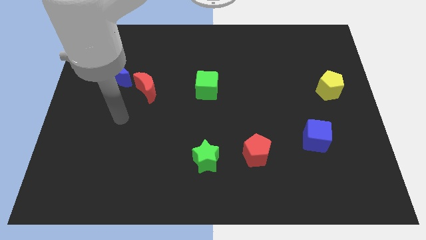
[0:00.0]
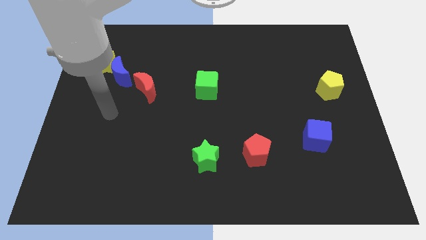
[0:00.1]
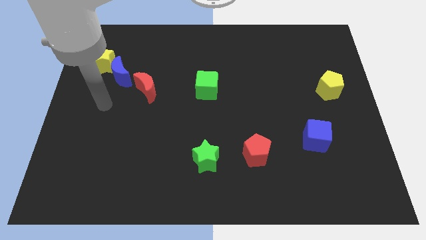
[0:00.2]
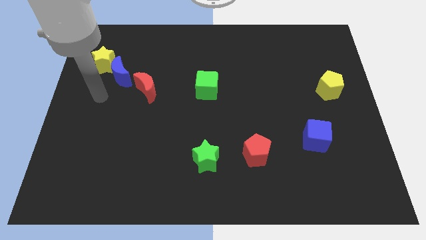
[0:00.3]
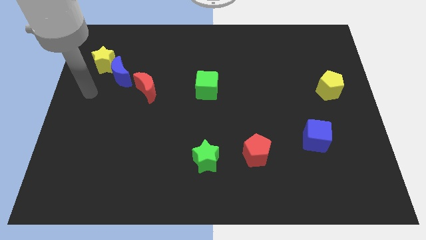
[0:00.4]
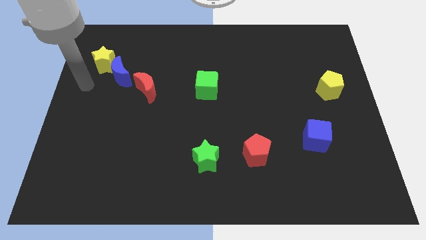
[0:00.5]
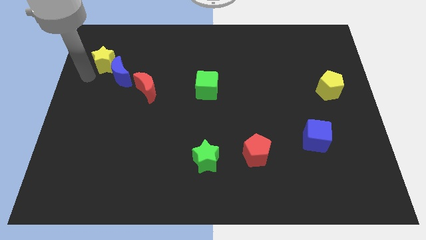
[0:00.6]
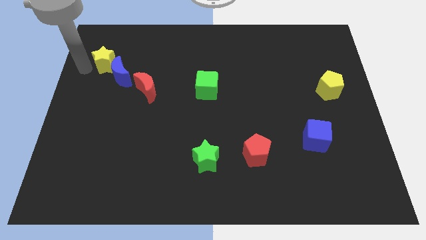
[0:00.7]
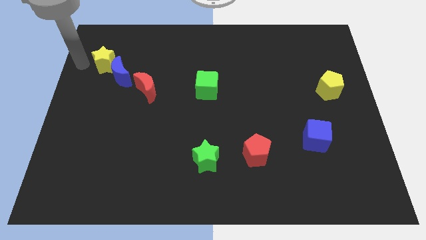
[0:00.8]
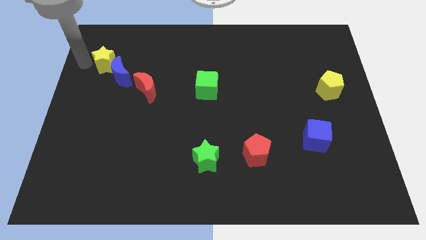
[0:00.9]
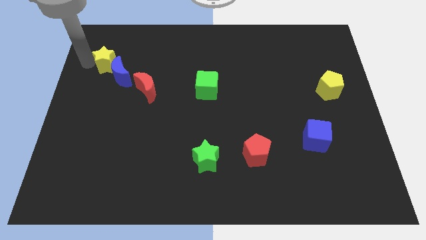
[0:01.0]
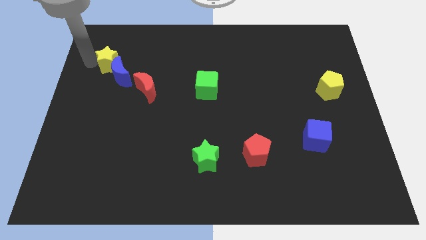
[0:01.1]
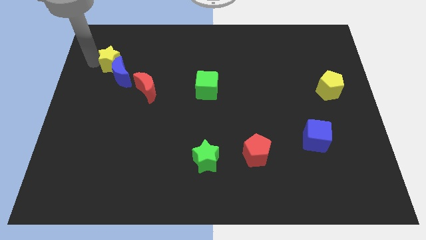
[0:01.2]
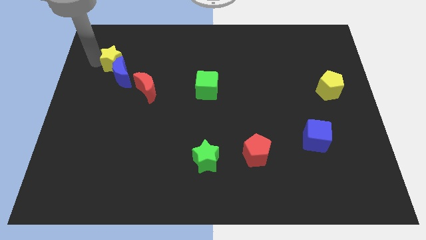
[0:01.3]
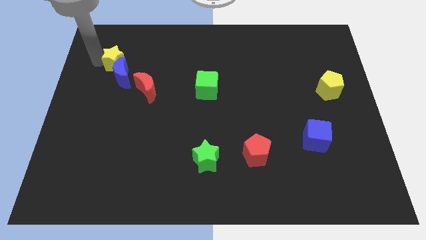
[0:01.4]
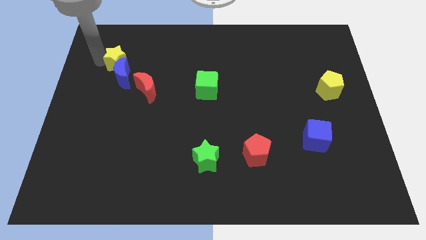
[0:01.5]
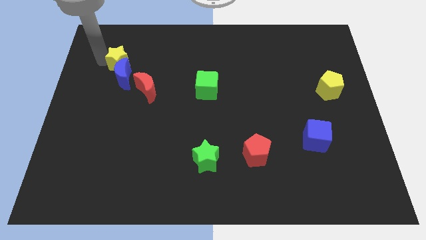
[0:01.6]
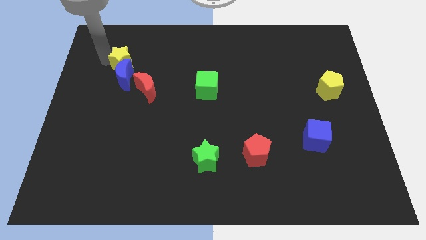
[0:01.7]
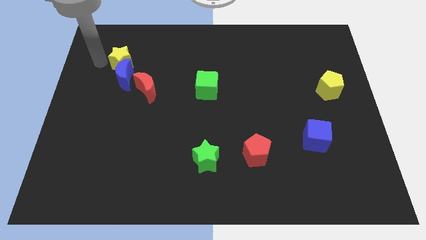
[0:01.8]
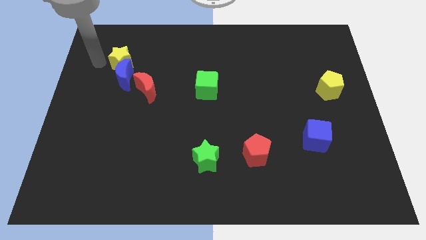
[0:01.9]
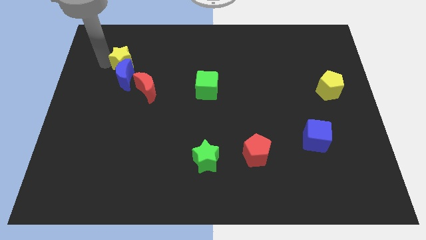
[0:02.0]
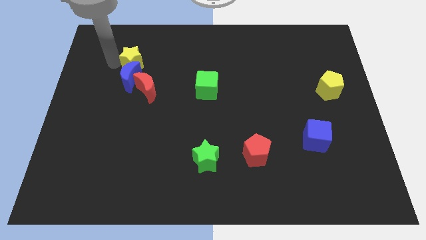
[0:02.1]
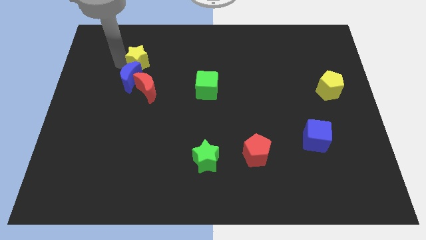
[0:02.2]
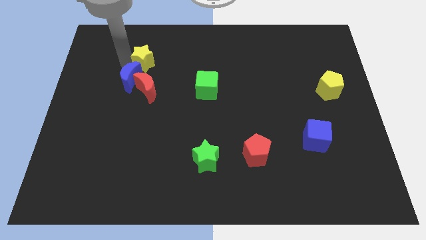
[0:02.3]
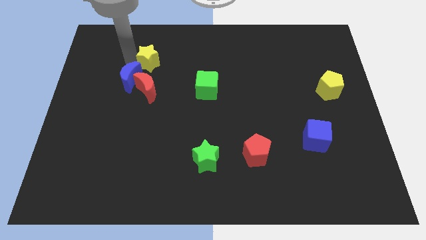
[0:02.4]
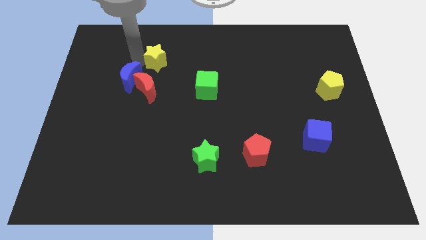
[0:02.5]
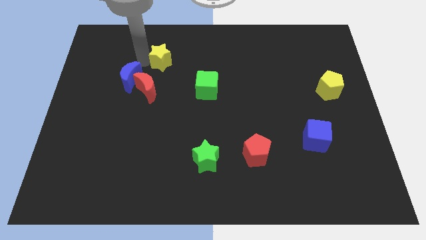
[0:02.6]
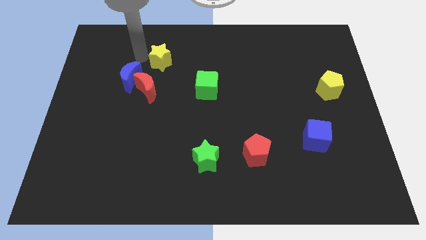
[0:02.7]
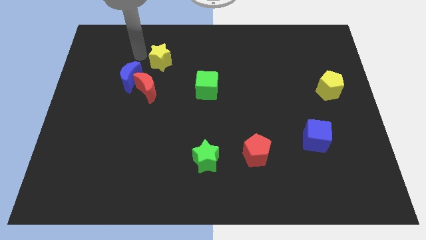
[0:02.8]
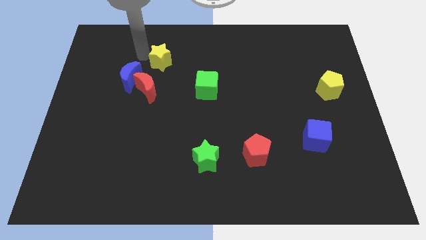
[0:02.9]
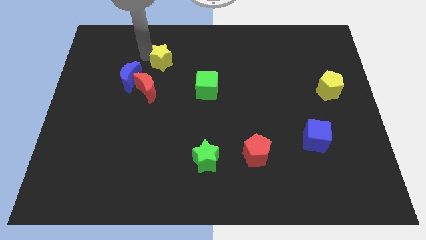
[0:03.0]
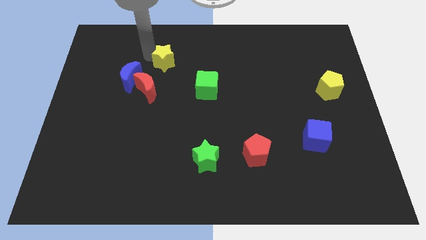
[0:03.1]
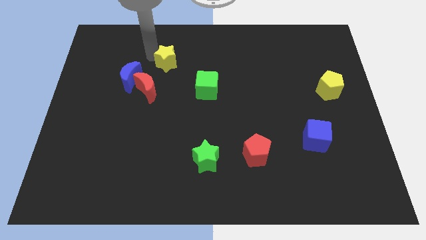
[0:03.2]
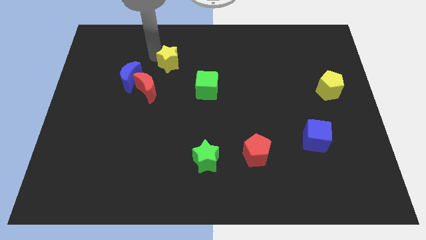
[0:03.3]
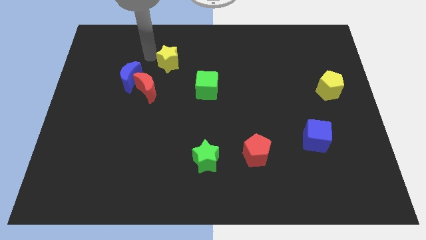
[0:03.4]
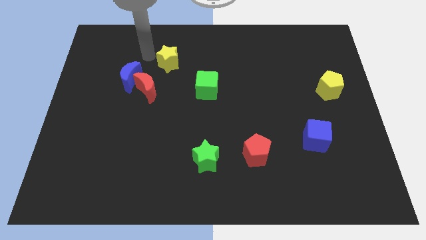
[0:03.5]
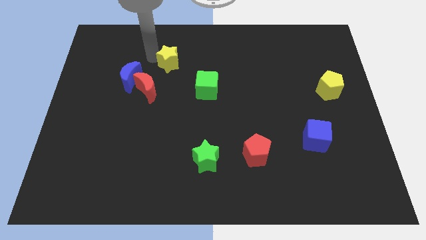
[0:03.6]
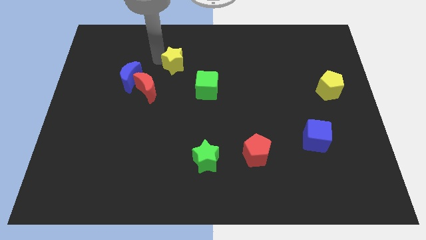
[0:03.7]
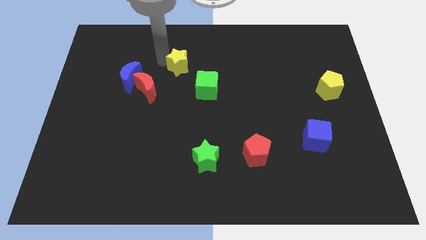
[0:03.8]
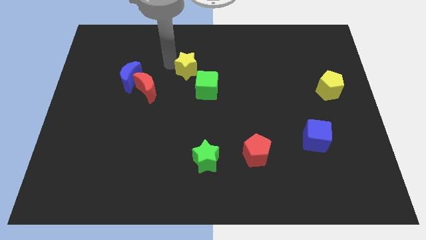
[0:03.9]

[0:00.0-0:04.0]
push the yellow star right

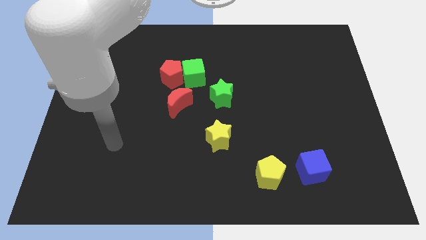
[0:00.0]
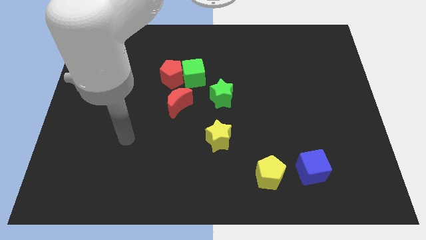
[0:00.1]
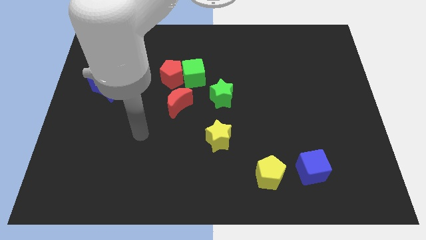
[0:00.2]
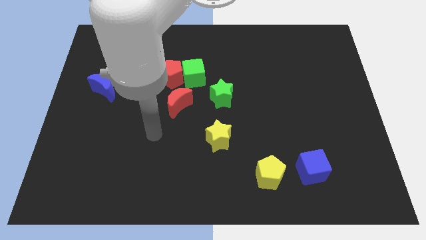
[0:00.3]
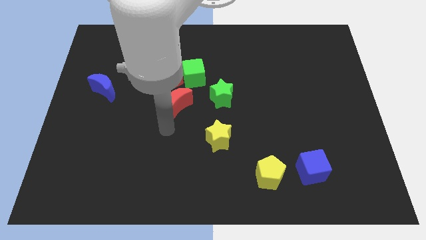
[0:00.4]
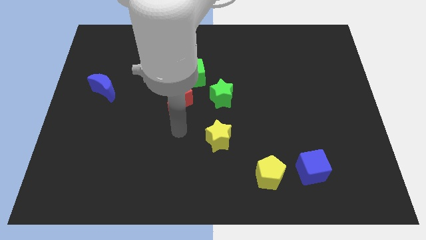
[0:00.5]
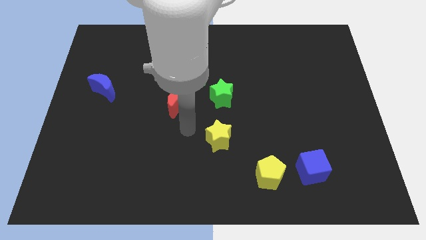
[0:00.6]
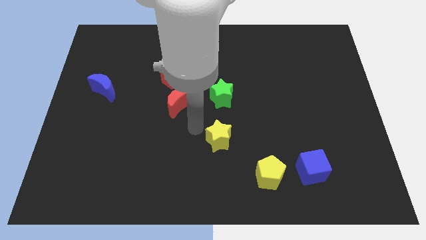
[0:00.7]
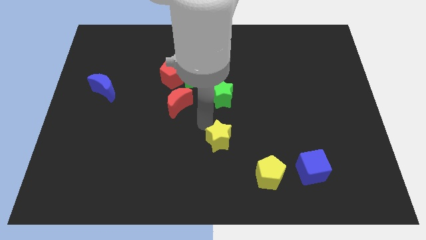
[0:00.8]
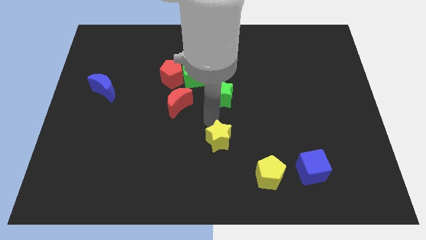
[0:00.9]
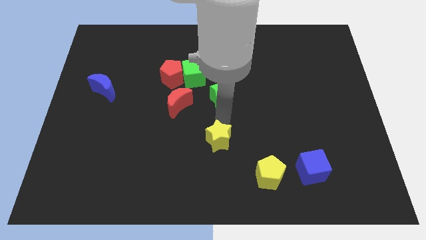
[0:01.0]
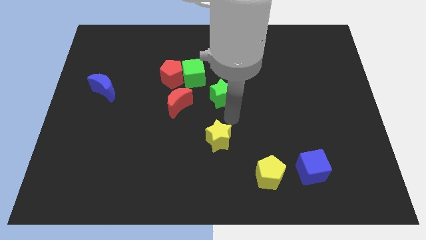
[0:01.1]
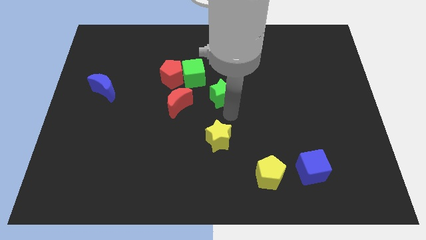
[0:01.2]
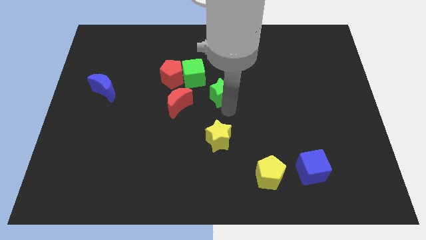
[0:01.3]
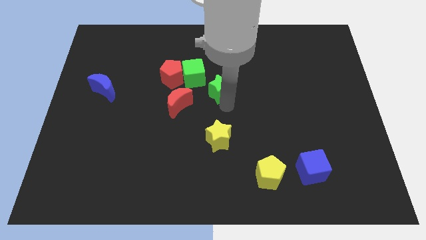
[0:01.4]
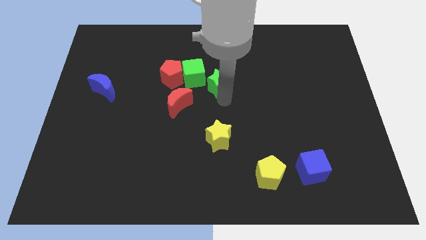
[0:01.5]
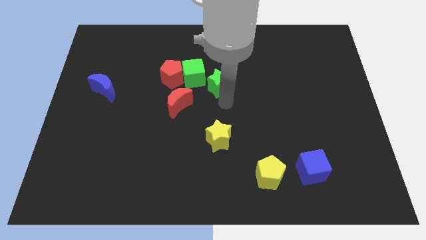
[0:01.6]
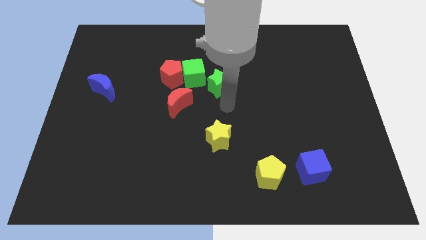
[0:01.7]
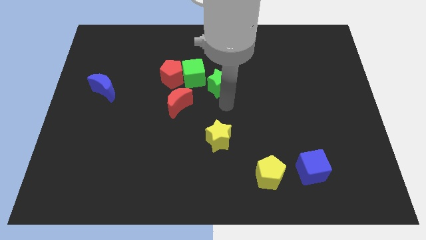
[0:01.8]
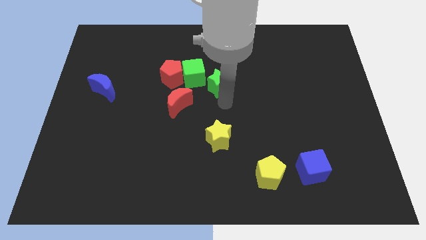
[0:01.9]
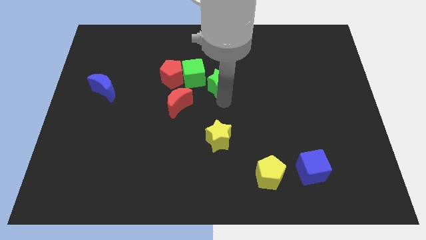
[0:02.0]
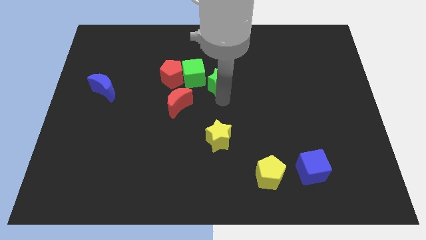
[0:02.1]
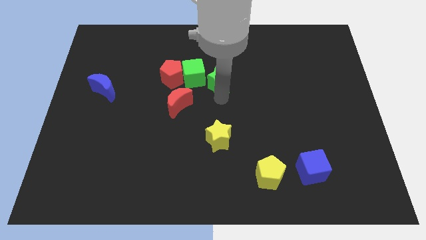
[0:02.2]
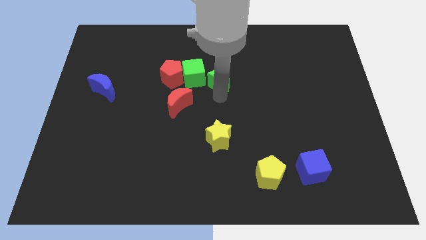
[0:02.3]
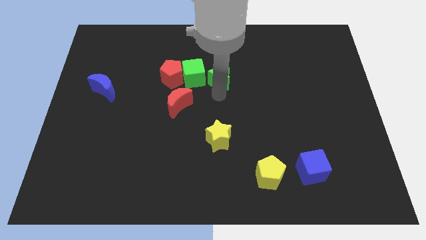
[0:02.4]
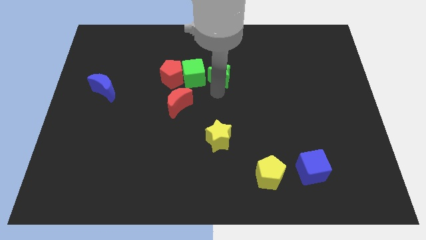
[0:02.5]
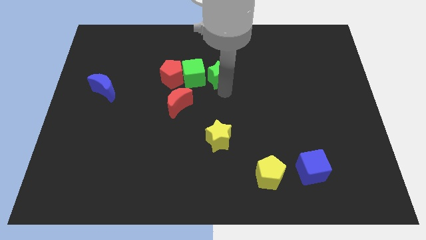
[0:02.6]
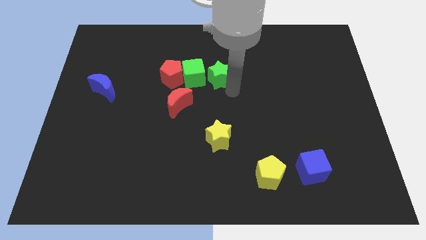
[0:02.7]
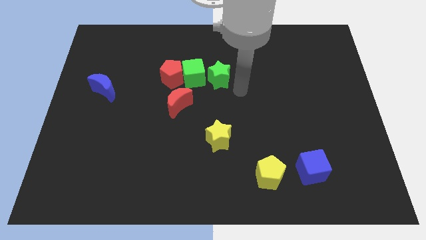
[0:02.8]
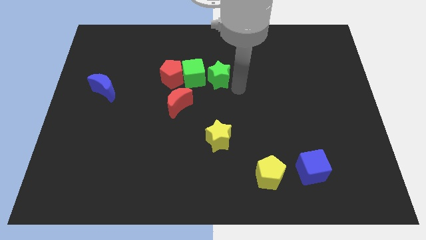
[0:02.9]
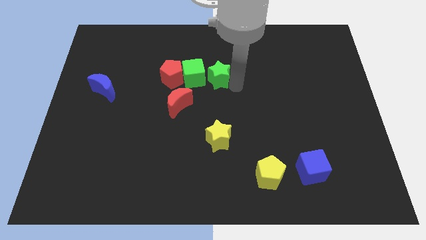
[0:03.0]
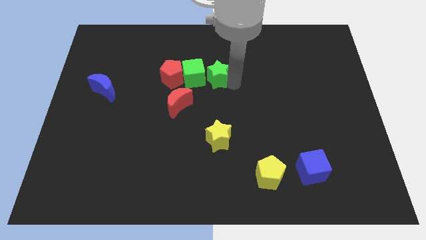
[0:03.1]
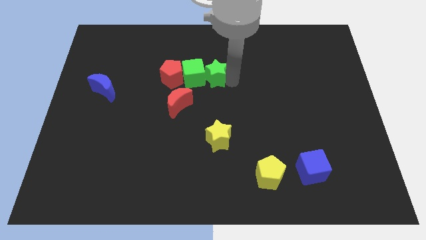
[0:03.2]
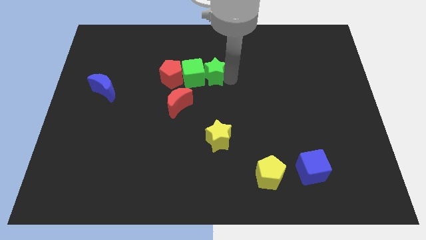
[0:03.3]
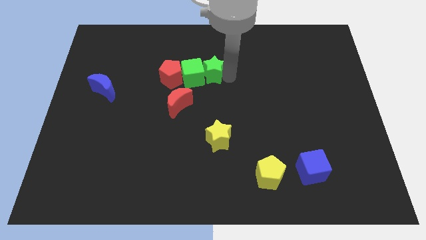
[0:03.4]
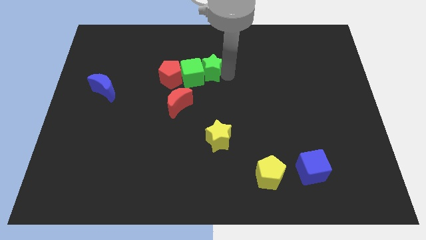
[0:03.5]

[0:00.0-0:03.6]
slide the green star upwards and left slightly

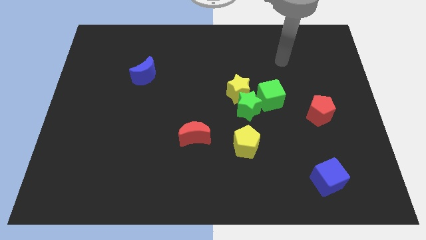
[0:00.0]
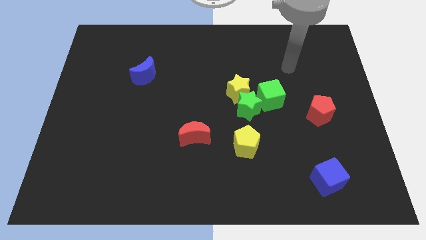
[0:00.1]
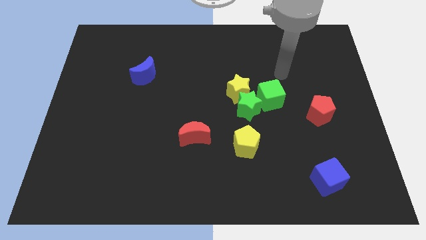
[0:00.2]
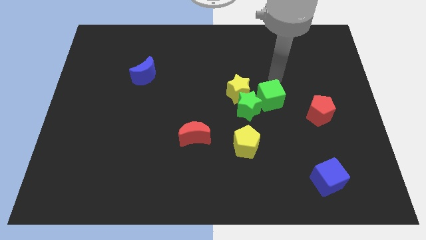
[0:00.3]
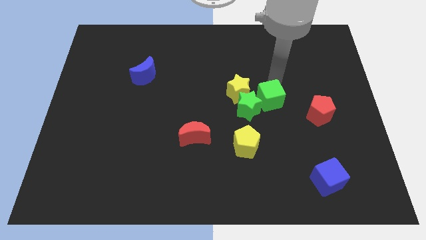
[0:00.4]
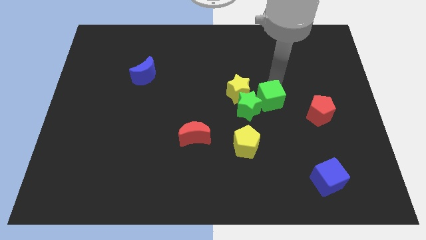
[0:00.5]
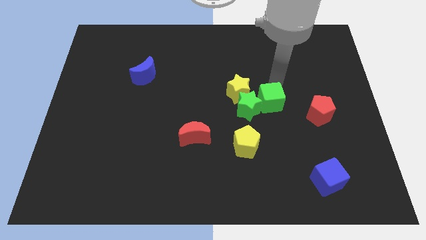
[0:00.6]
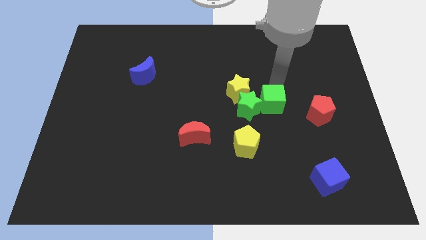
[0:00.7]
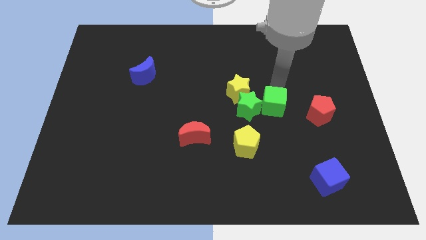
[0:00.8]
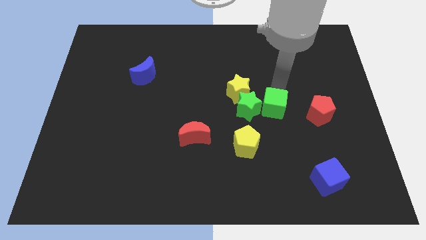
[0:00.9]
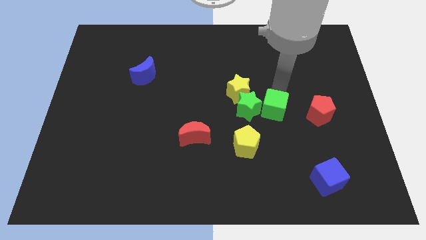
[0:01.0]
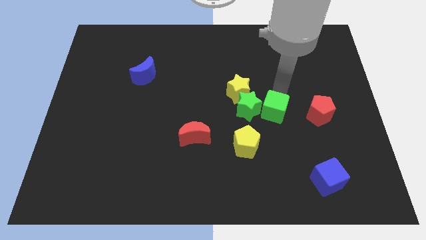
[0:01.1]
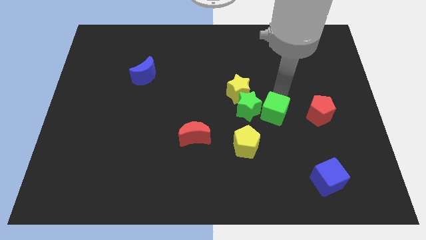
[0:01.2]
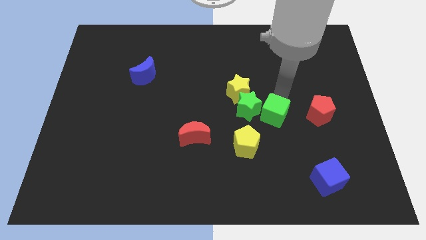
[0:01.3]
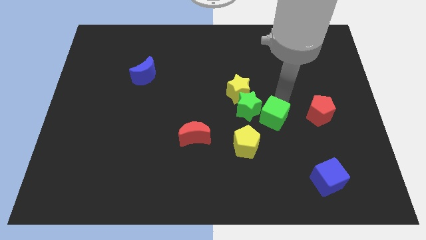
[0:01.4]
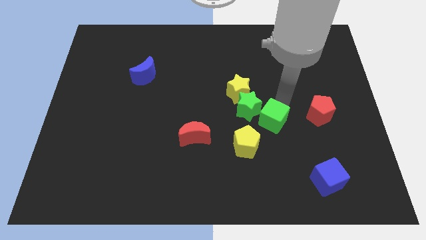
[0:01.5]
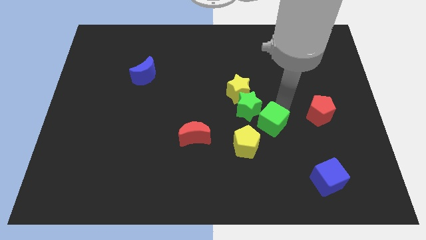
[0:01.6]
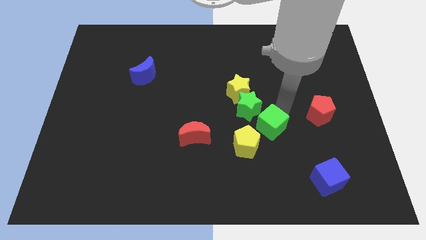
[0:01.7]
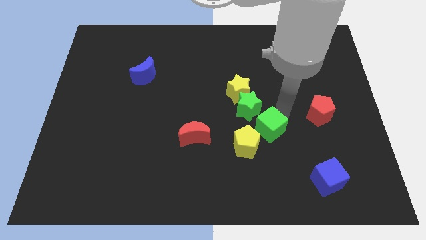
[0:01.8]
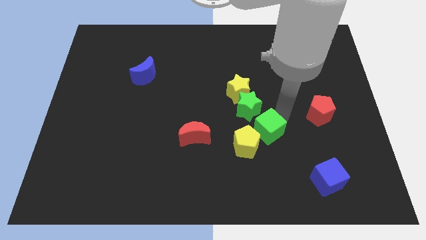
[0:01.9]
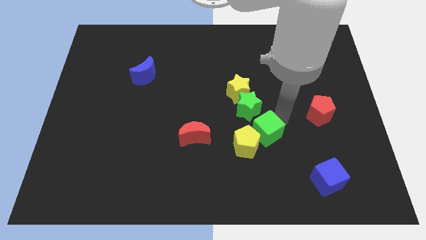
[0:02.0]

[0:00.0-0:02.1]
slightly move the green cube downwards and to the left
